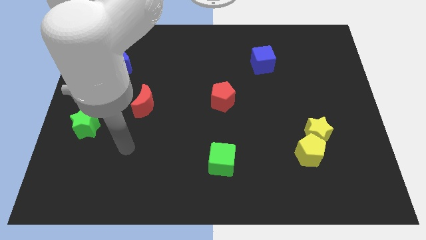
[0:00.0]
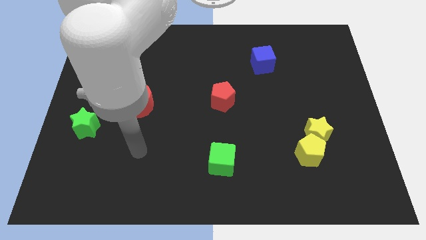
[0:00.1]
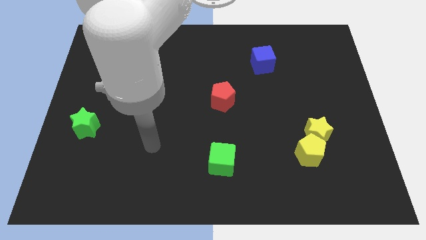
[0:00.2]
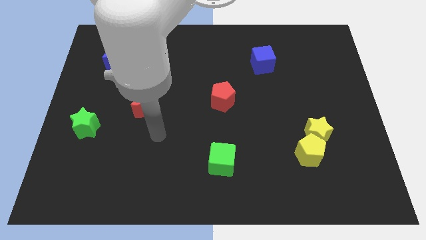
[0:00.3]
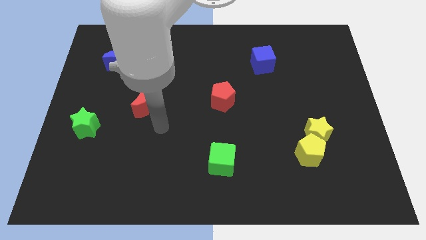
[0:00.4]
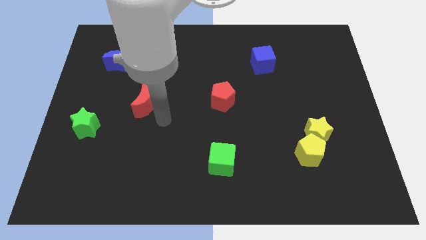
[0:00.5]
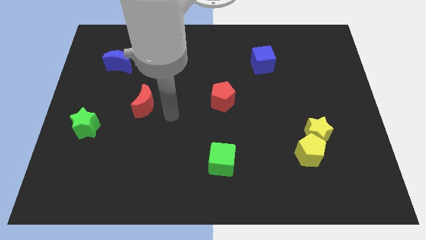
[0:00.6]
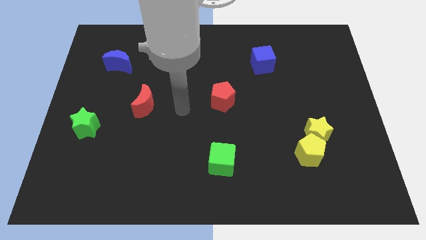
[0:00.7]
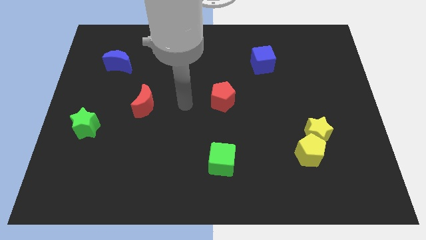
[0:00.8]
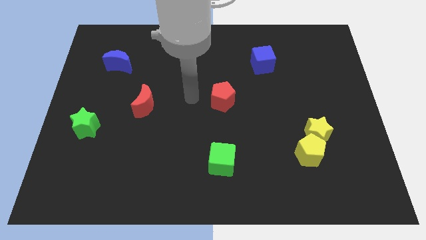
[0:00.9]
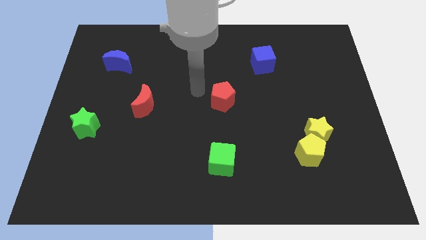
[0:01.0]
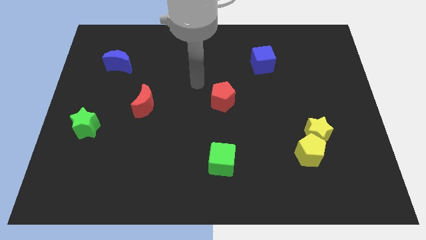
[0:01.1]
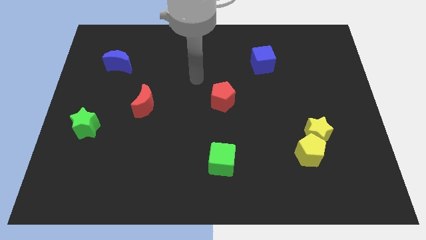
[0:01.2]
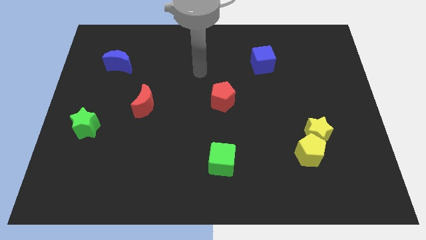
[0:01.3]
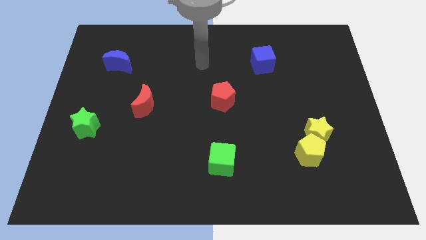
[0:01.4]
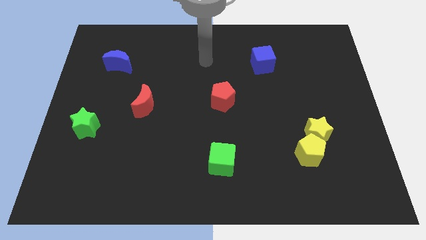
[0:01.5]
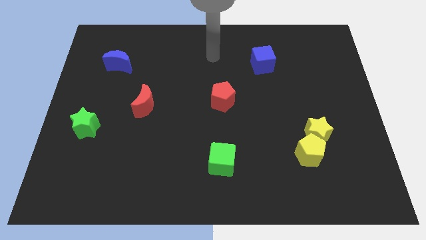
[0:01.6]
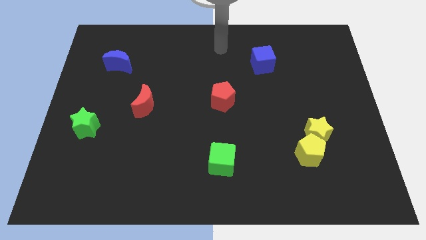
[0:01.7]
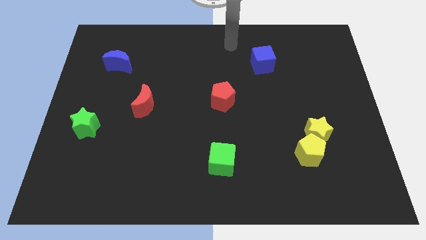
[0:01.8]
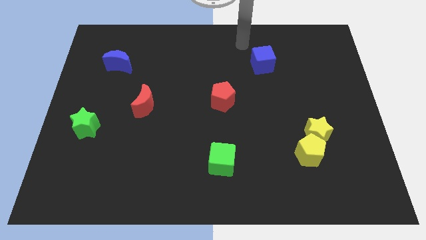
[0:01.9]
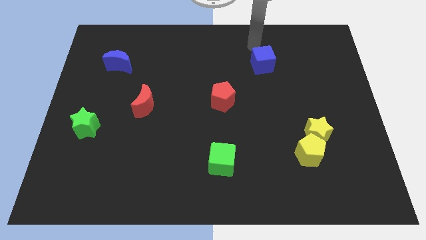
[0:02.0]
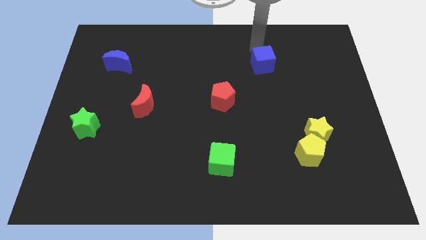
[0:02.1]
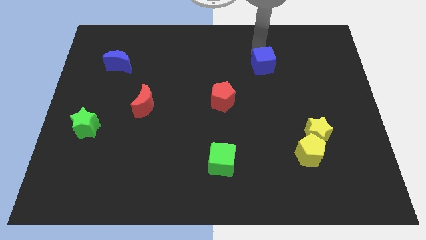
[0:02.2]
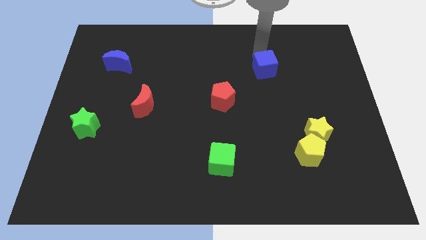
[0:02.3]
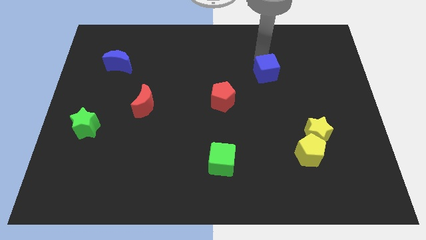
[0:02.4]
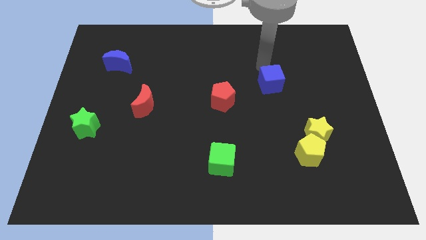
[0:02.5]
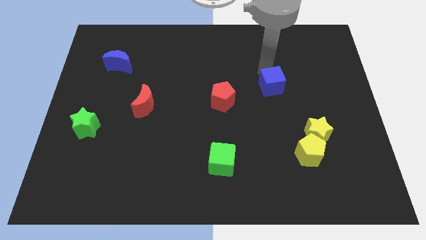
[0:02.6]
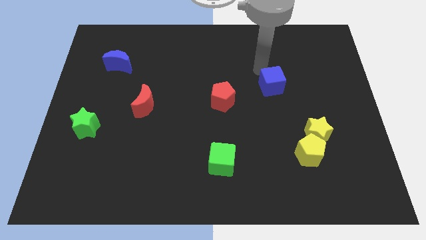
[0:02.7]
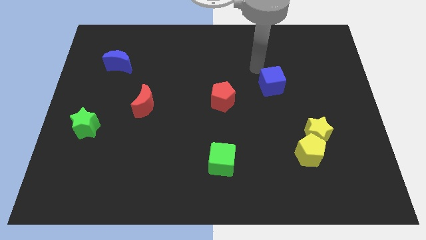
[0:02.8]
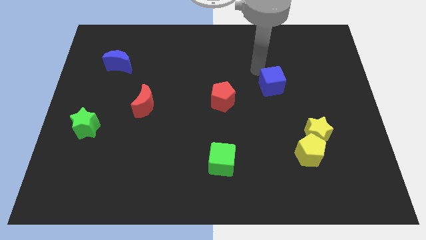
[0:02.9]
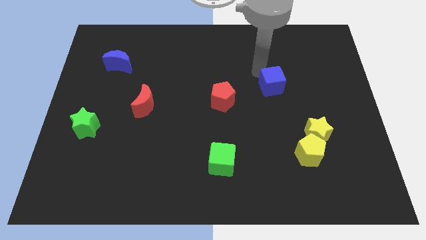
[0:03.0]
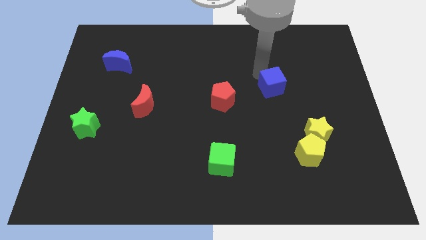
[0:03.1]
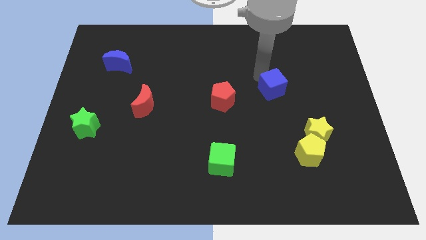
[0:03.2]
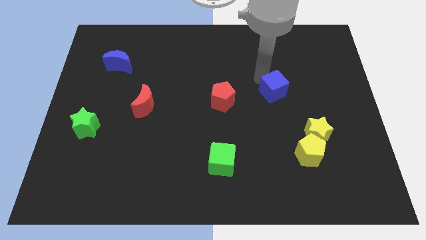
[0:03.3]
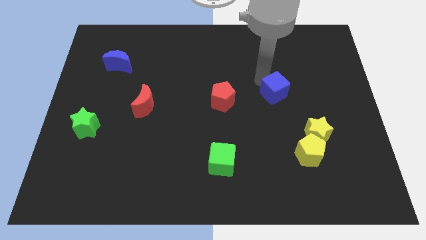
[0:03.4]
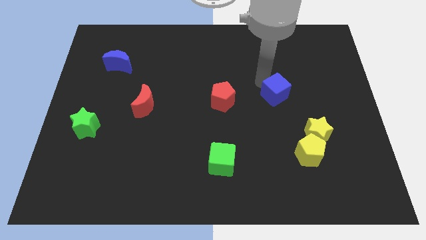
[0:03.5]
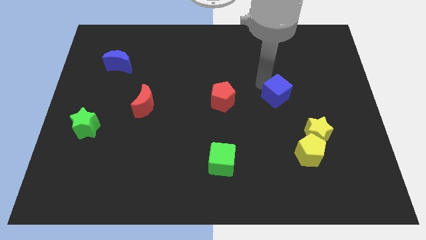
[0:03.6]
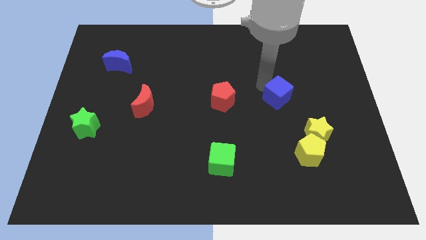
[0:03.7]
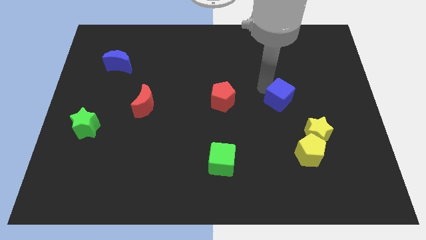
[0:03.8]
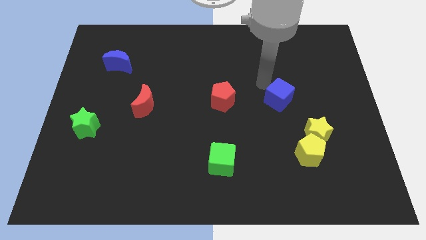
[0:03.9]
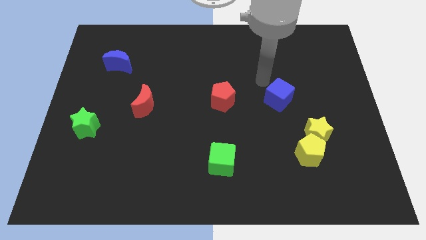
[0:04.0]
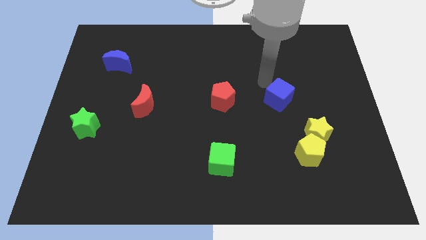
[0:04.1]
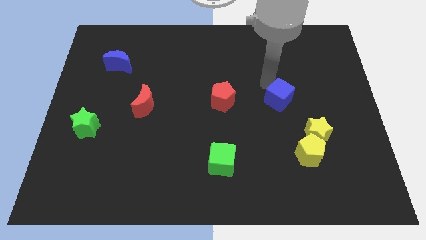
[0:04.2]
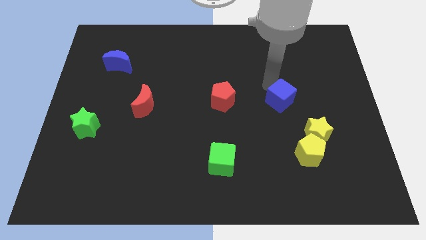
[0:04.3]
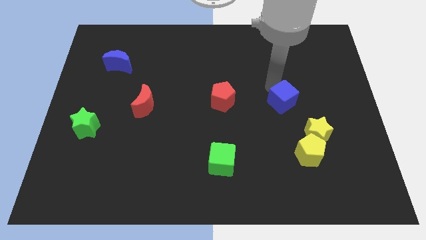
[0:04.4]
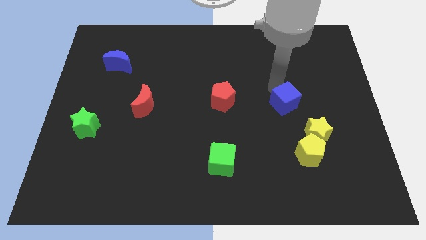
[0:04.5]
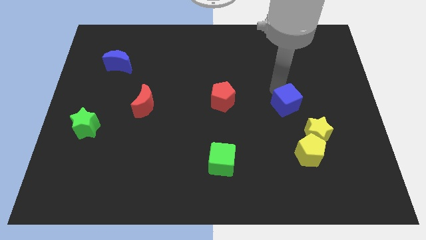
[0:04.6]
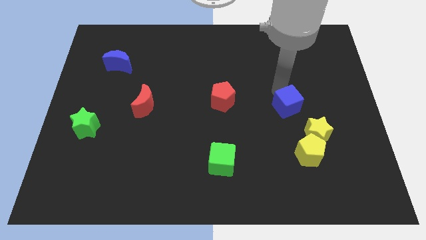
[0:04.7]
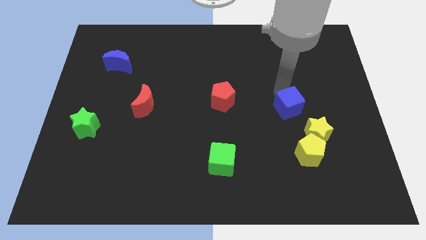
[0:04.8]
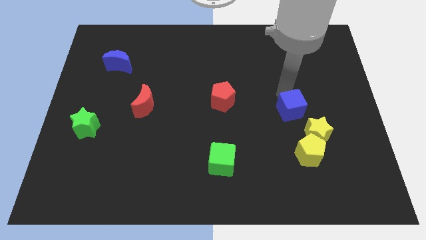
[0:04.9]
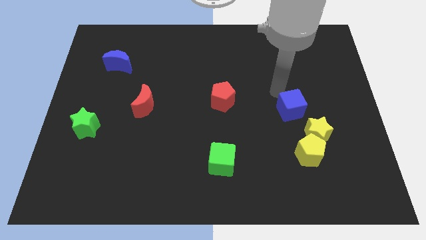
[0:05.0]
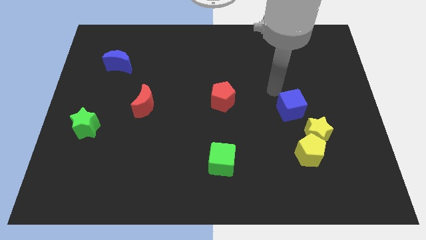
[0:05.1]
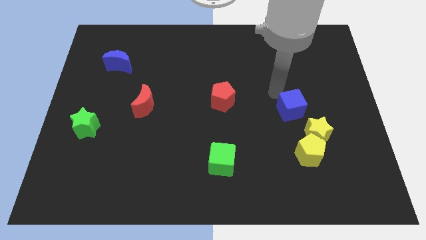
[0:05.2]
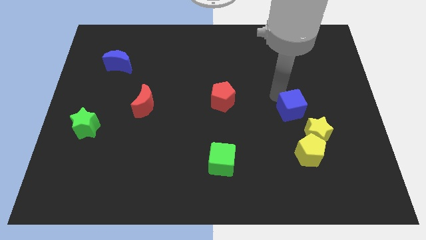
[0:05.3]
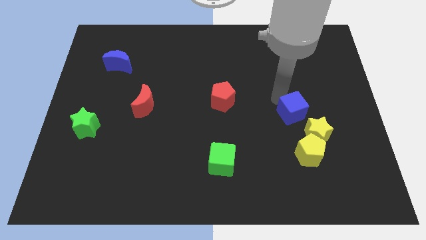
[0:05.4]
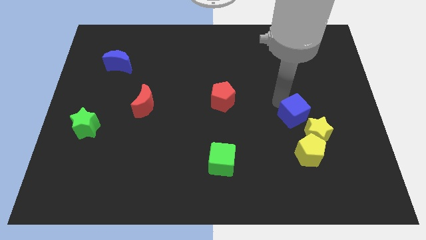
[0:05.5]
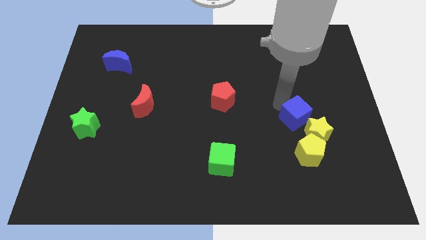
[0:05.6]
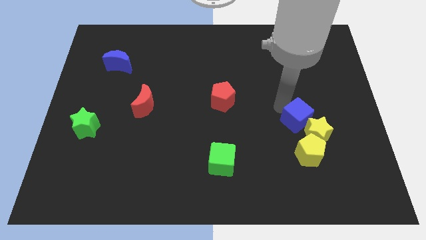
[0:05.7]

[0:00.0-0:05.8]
slide the blue cube next to the yellow star

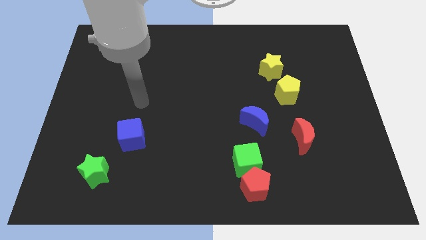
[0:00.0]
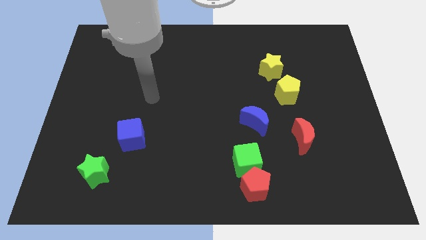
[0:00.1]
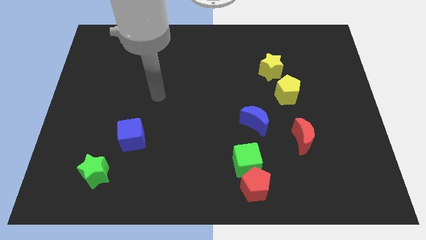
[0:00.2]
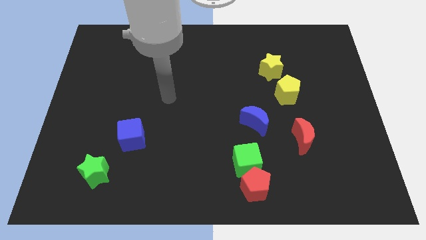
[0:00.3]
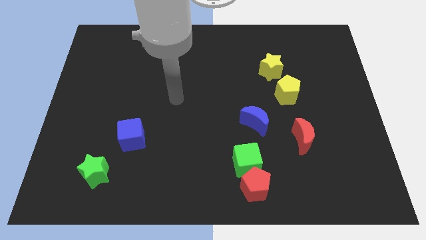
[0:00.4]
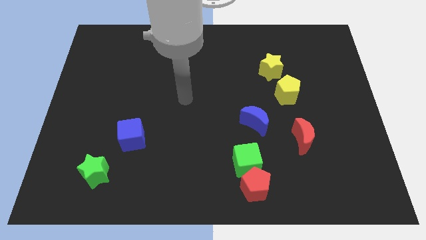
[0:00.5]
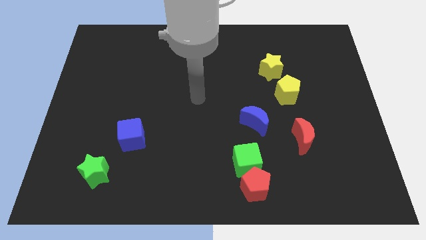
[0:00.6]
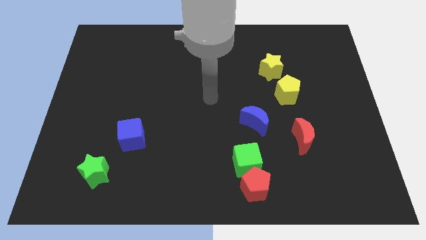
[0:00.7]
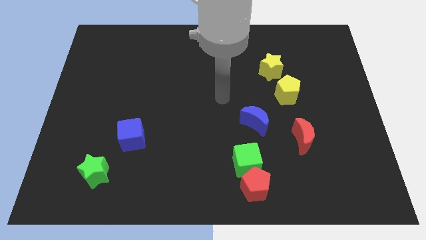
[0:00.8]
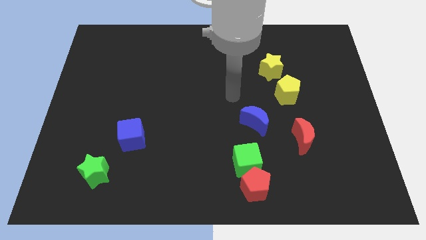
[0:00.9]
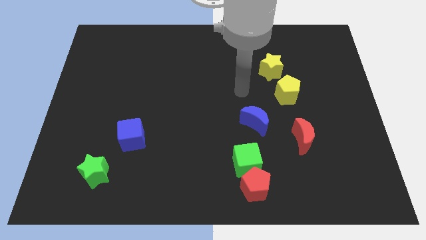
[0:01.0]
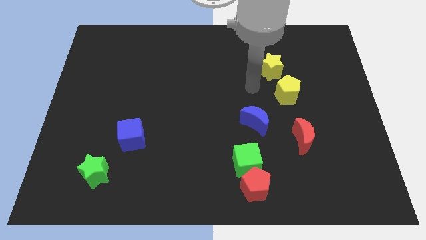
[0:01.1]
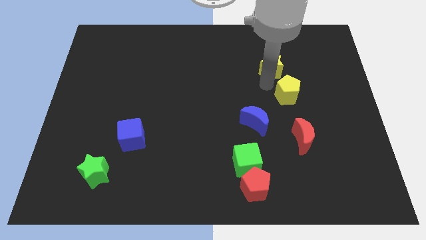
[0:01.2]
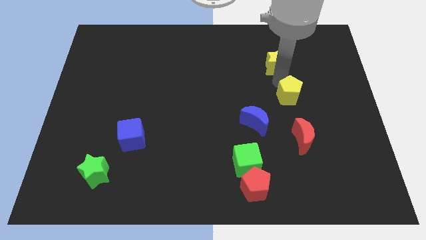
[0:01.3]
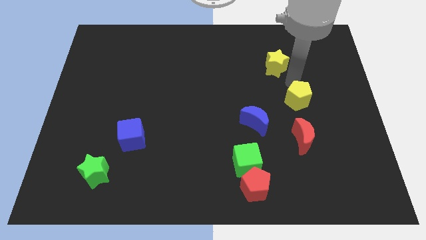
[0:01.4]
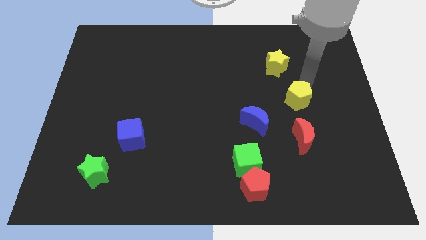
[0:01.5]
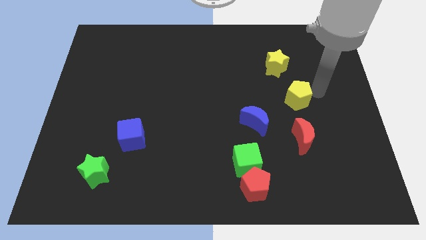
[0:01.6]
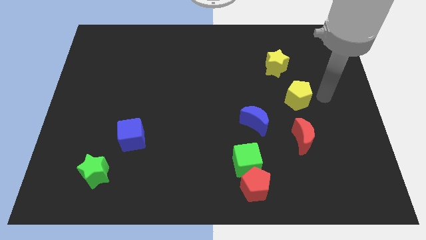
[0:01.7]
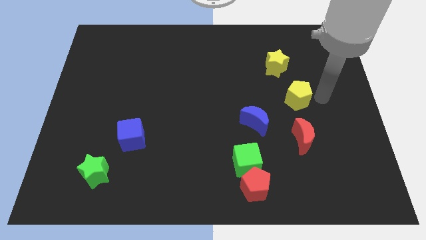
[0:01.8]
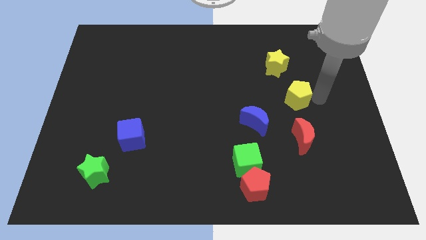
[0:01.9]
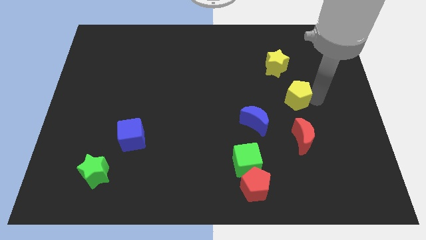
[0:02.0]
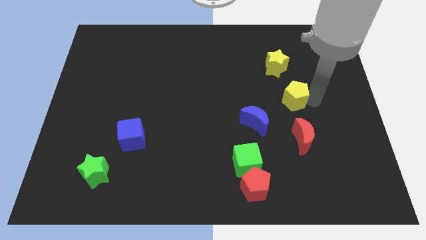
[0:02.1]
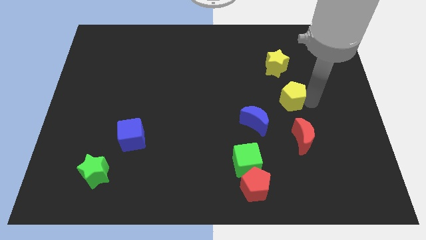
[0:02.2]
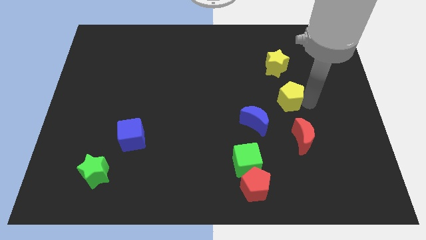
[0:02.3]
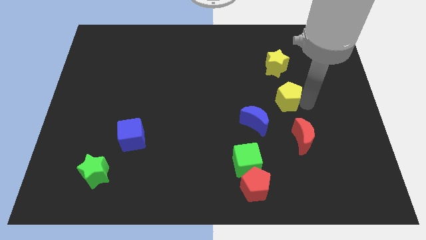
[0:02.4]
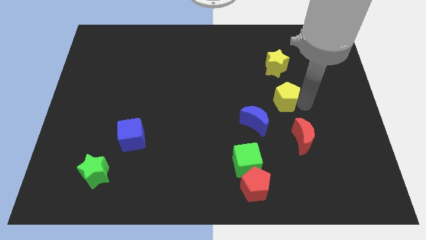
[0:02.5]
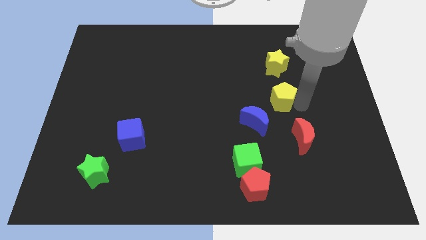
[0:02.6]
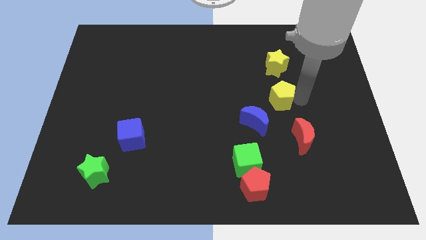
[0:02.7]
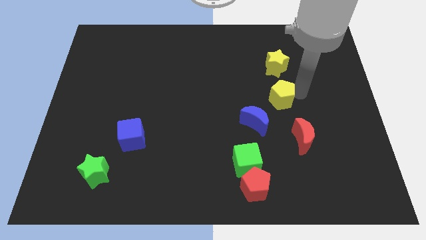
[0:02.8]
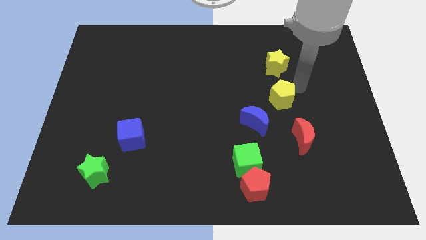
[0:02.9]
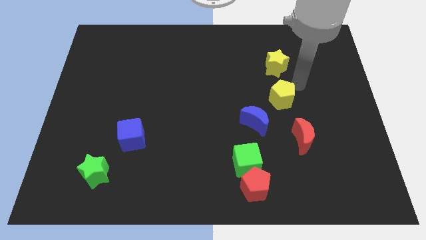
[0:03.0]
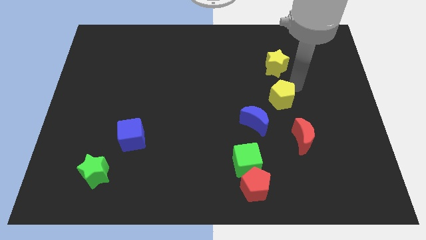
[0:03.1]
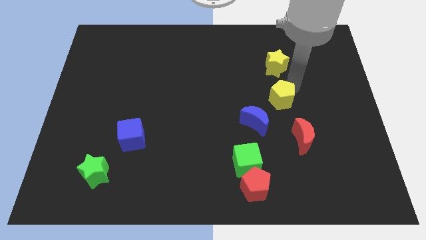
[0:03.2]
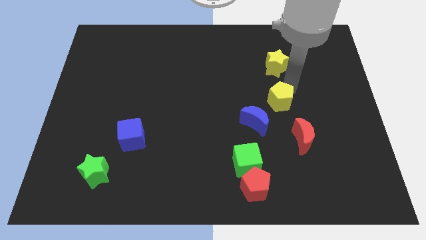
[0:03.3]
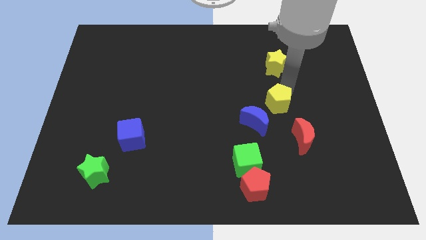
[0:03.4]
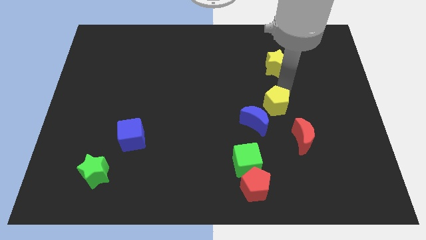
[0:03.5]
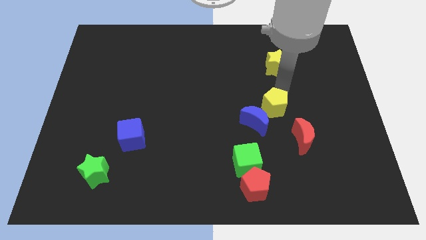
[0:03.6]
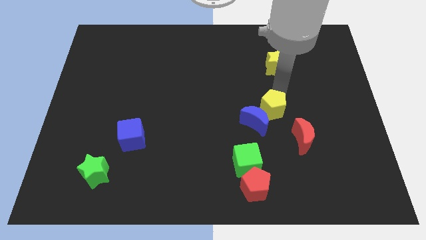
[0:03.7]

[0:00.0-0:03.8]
slide the yellow pentagon next to the blue moon
